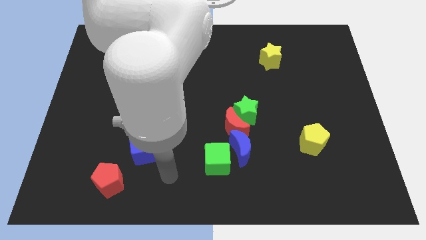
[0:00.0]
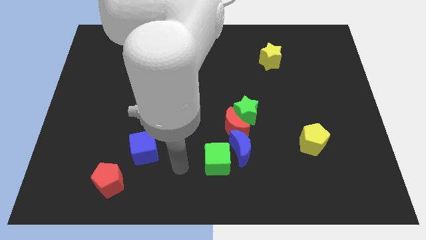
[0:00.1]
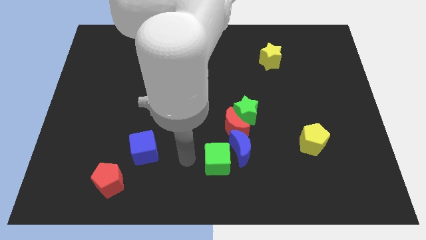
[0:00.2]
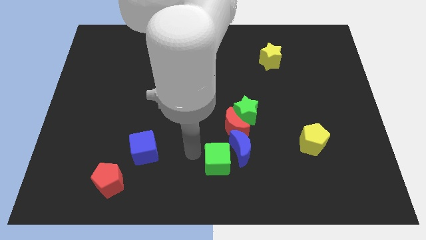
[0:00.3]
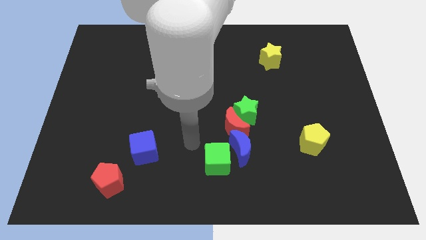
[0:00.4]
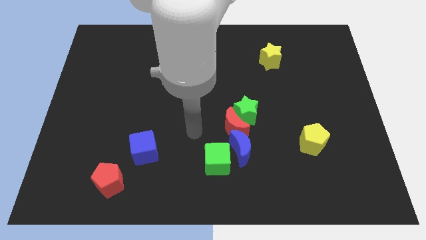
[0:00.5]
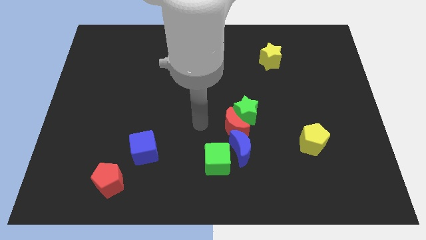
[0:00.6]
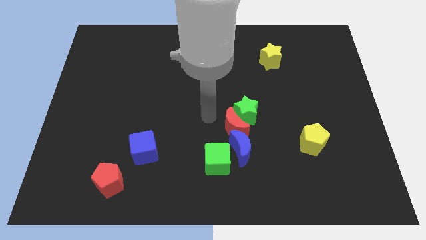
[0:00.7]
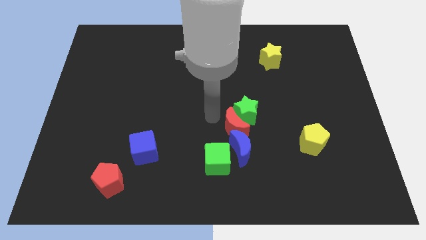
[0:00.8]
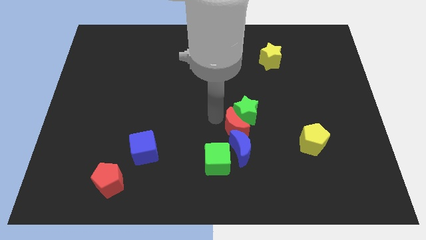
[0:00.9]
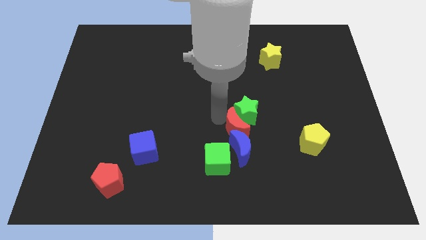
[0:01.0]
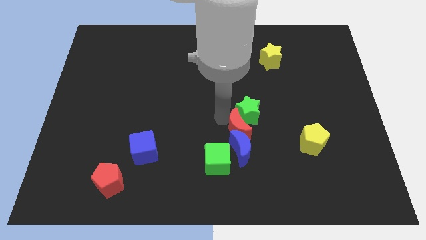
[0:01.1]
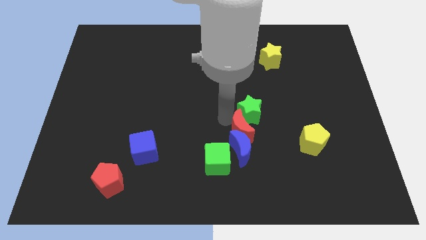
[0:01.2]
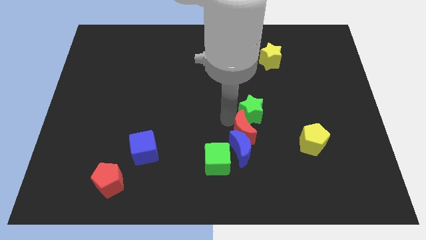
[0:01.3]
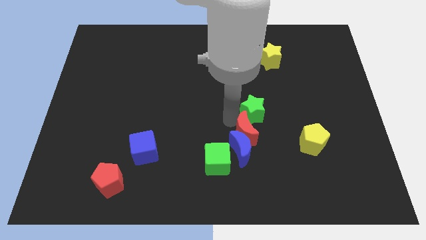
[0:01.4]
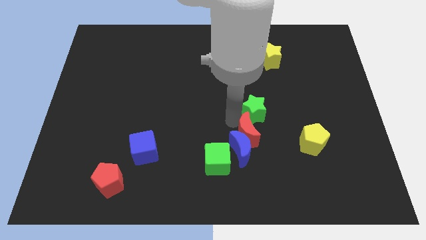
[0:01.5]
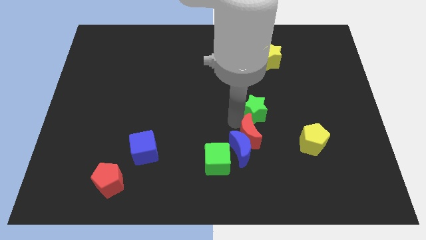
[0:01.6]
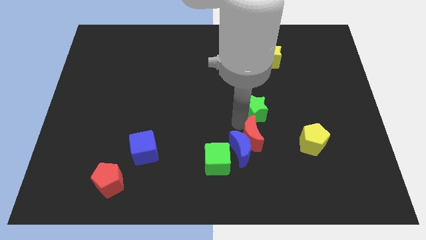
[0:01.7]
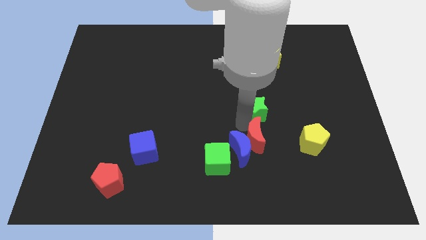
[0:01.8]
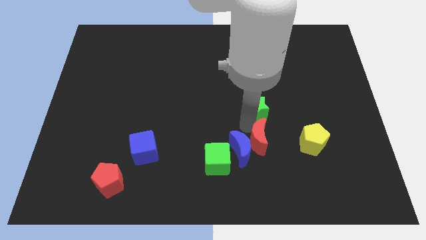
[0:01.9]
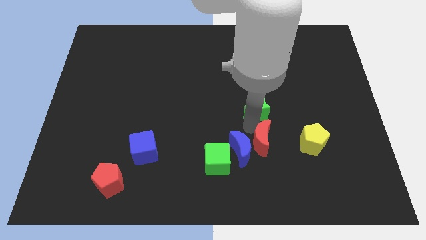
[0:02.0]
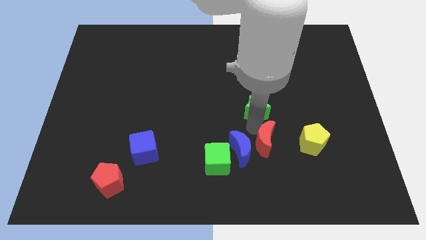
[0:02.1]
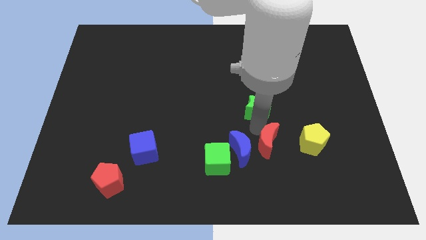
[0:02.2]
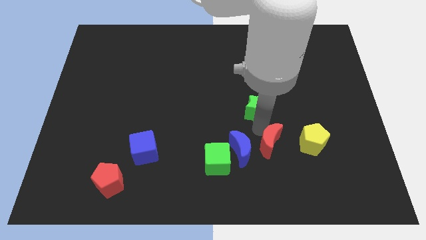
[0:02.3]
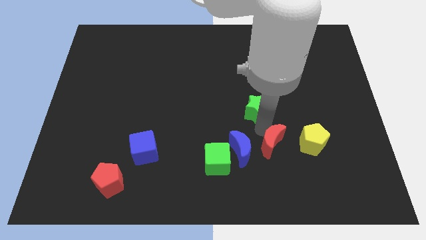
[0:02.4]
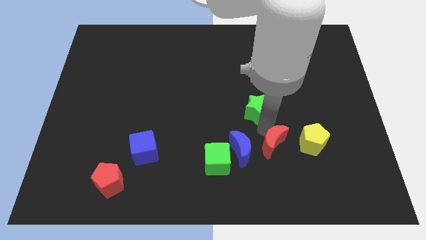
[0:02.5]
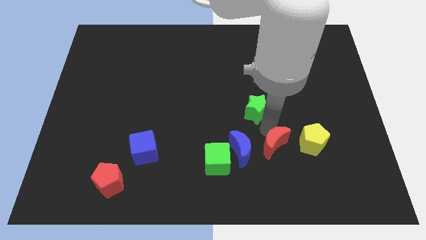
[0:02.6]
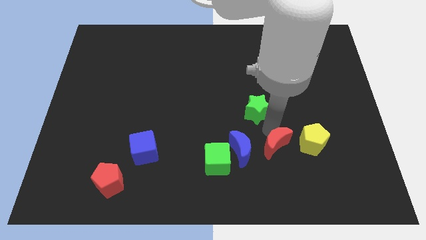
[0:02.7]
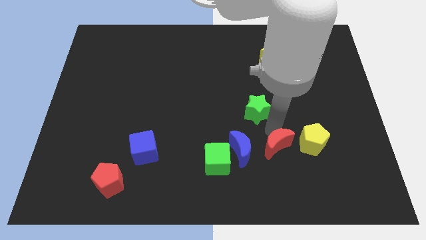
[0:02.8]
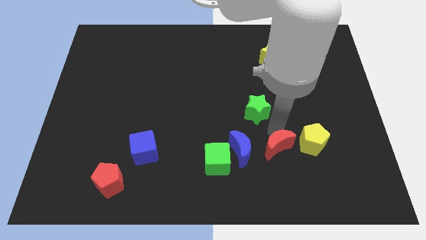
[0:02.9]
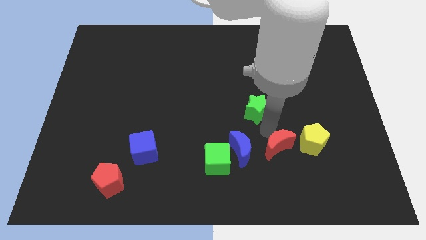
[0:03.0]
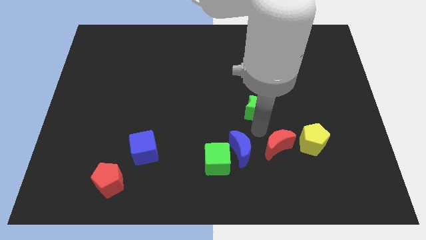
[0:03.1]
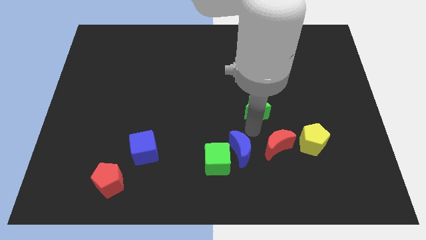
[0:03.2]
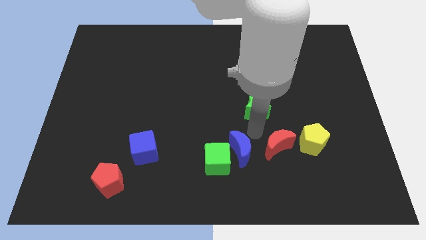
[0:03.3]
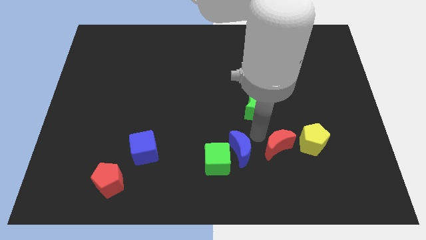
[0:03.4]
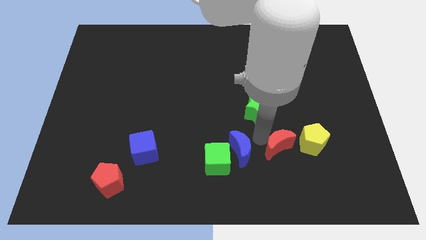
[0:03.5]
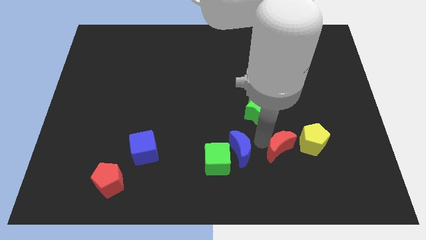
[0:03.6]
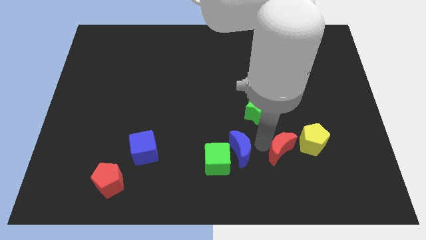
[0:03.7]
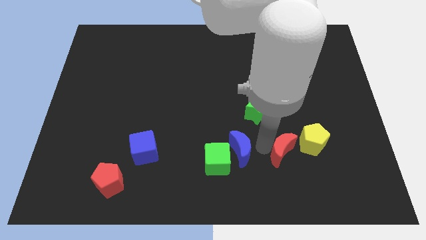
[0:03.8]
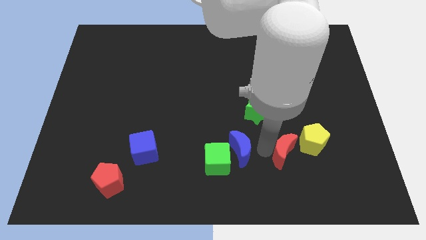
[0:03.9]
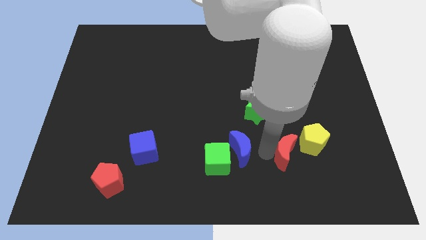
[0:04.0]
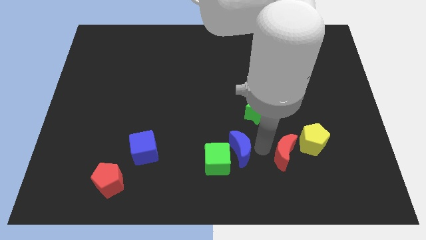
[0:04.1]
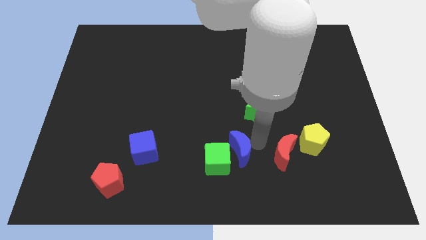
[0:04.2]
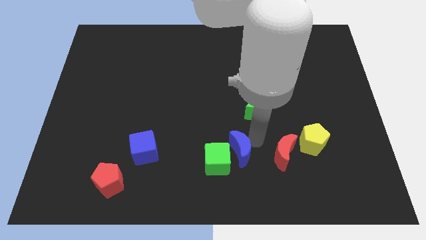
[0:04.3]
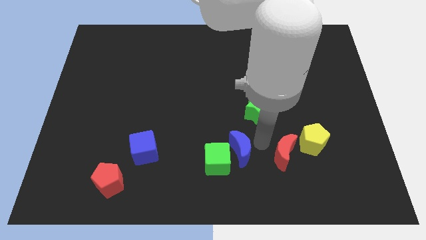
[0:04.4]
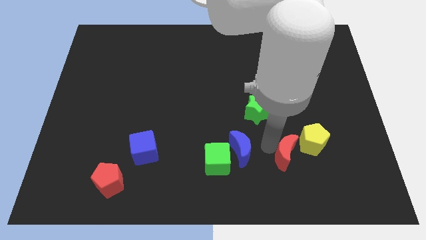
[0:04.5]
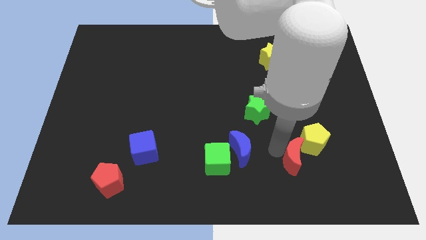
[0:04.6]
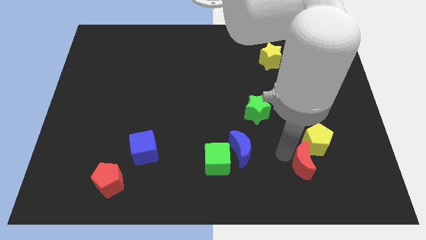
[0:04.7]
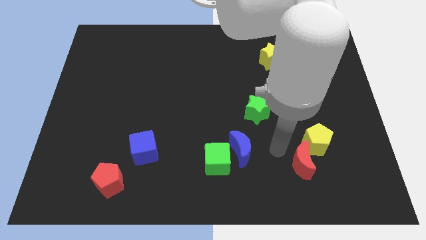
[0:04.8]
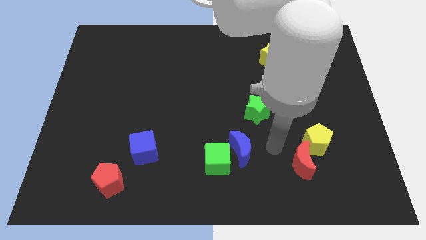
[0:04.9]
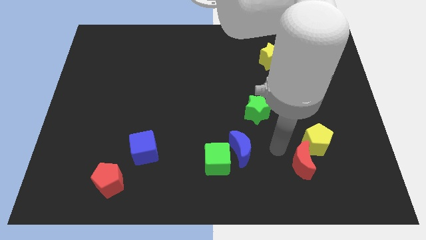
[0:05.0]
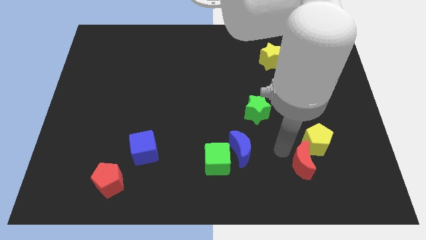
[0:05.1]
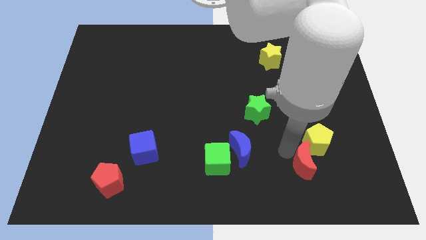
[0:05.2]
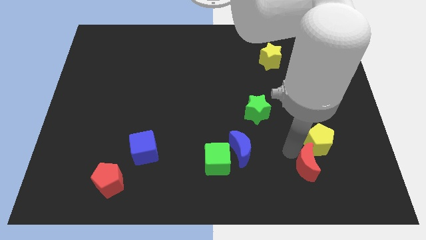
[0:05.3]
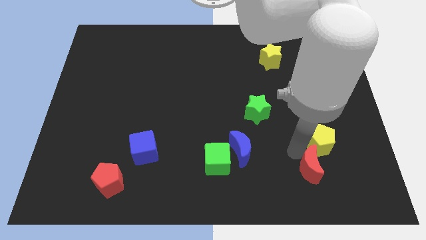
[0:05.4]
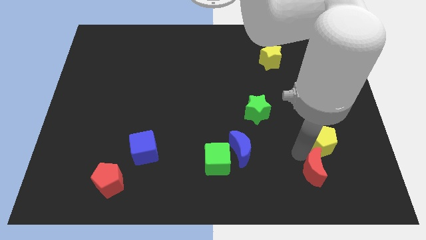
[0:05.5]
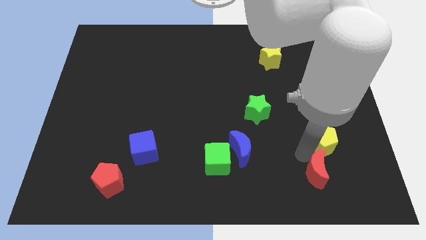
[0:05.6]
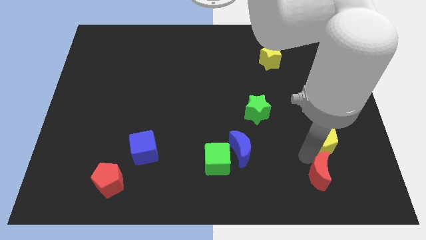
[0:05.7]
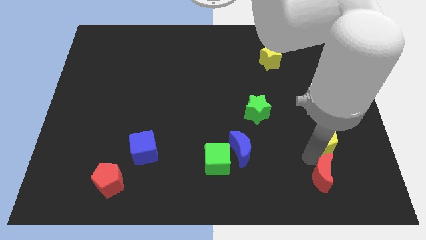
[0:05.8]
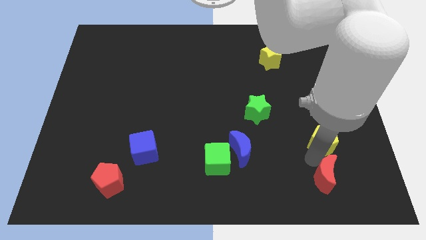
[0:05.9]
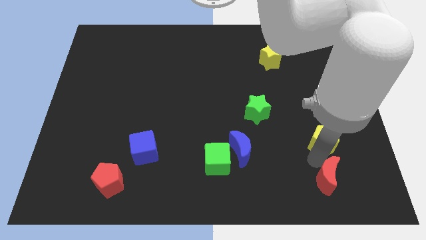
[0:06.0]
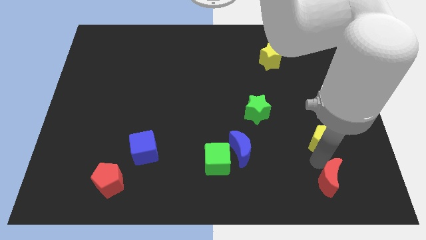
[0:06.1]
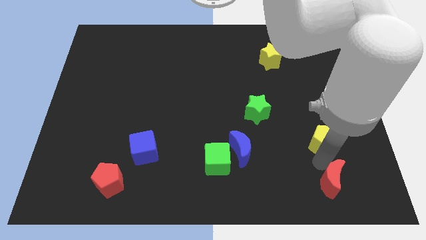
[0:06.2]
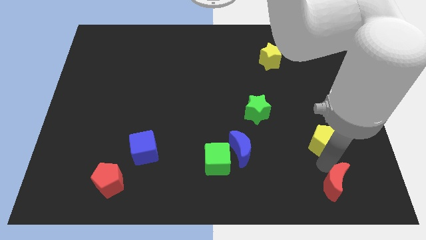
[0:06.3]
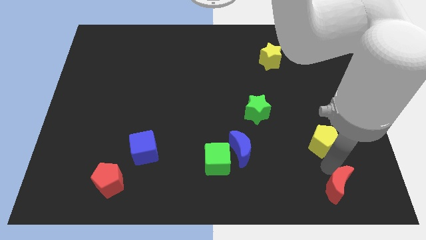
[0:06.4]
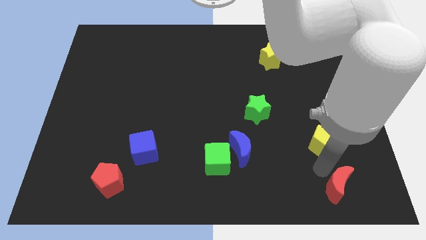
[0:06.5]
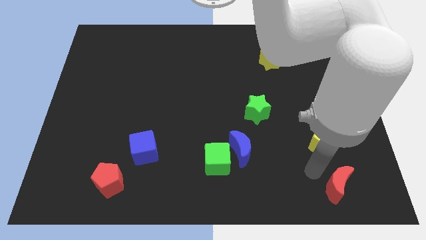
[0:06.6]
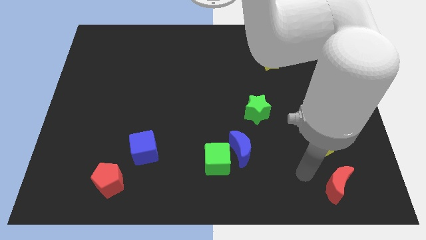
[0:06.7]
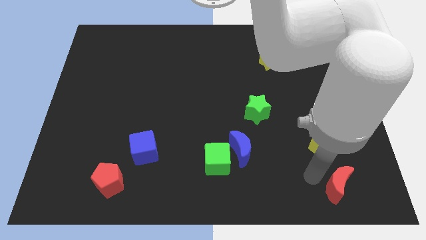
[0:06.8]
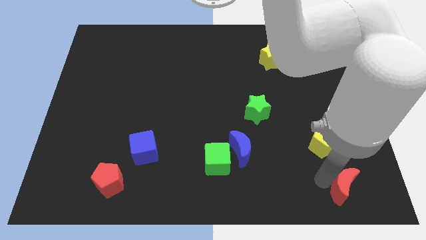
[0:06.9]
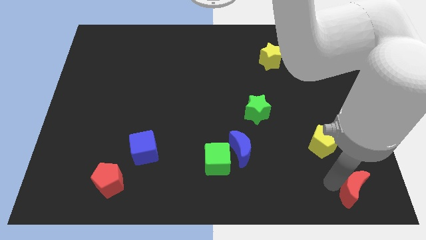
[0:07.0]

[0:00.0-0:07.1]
slide the red moon to the bottom right of the board
